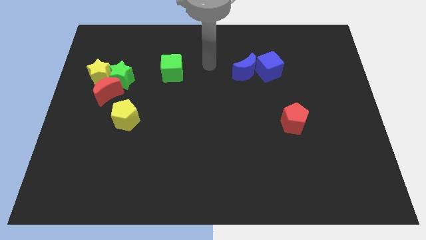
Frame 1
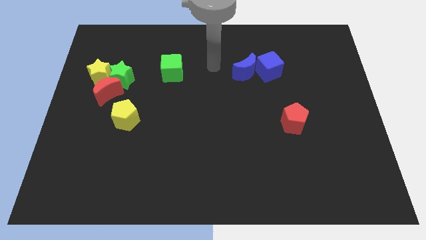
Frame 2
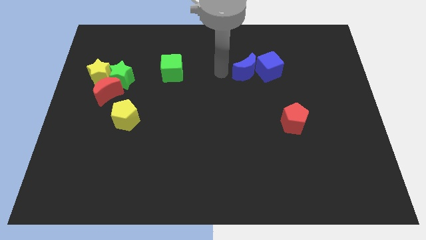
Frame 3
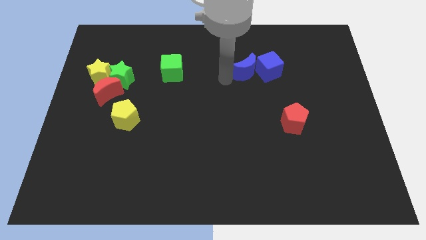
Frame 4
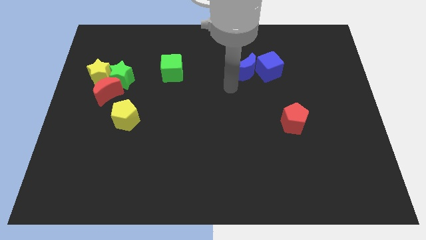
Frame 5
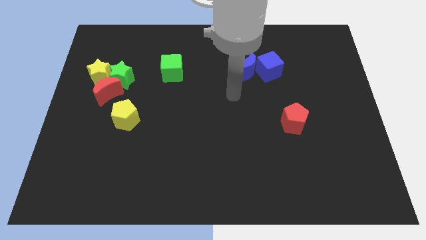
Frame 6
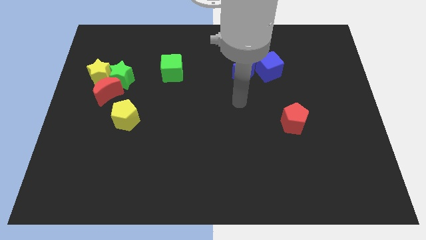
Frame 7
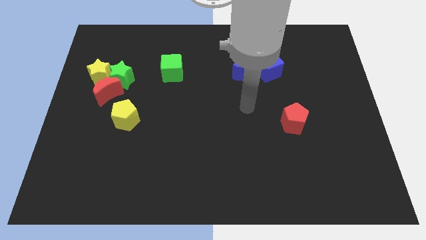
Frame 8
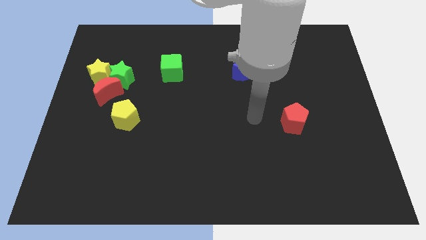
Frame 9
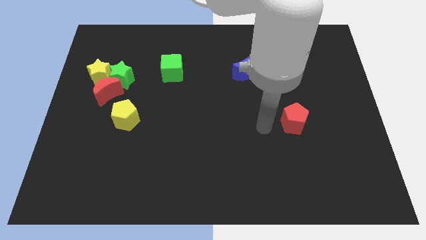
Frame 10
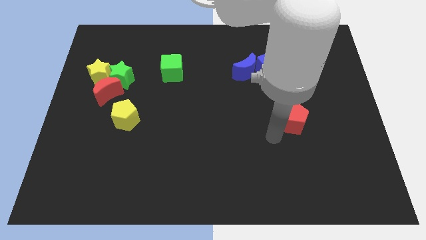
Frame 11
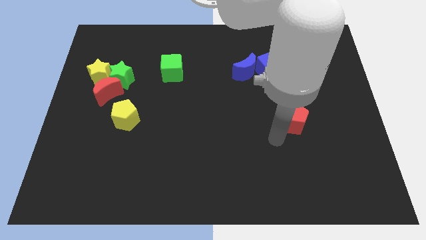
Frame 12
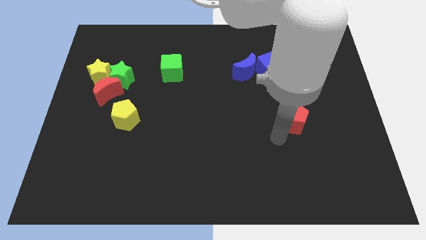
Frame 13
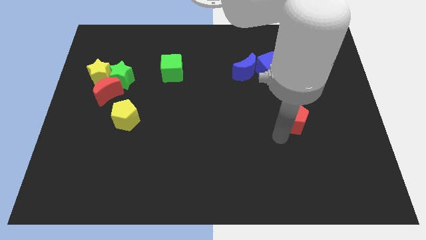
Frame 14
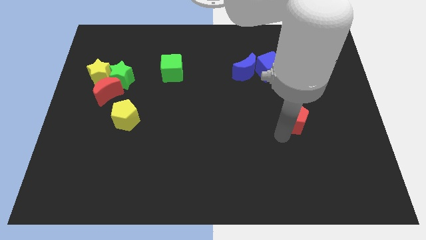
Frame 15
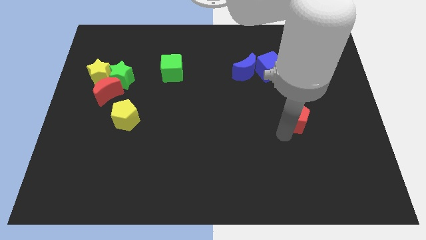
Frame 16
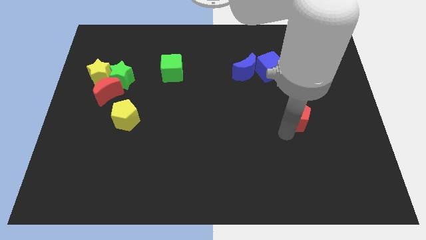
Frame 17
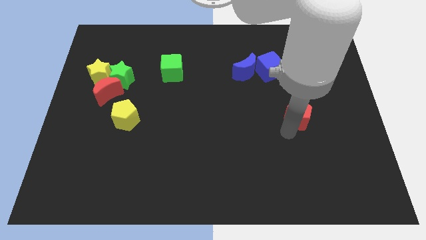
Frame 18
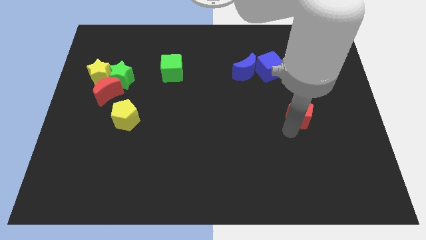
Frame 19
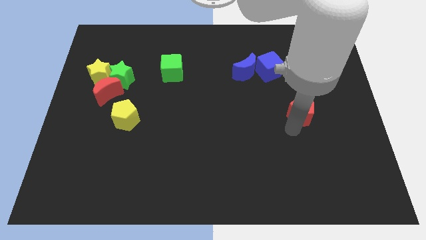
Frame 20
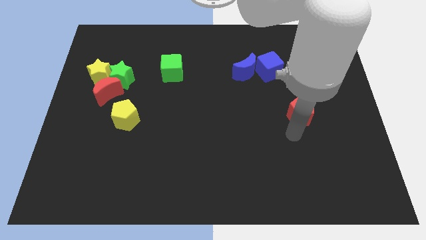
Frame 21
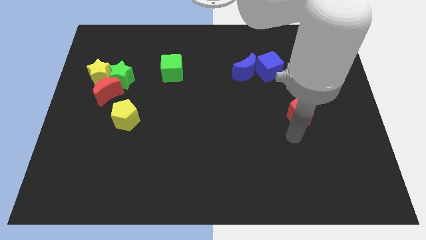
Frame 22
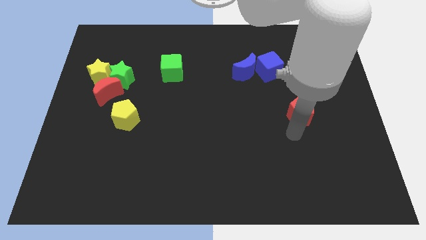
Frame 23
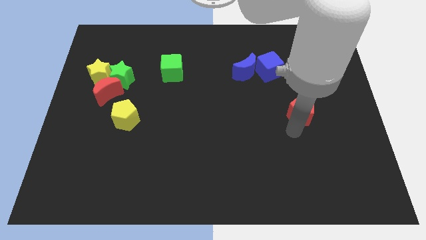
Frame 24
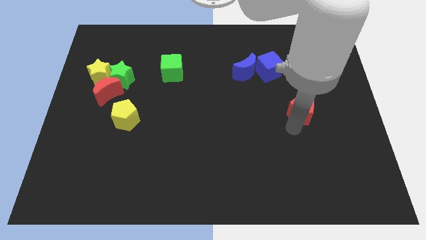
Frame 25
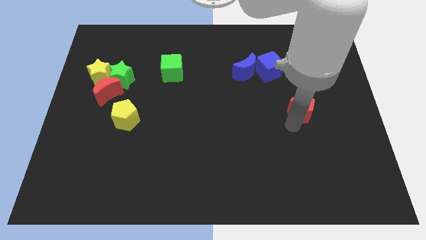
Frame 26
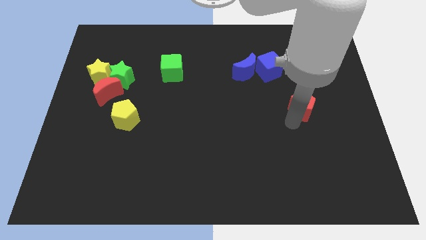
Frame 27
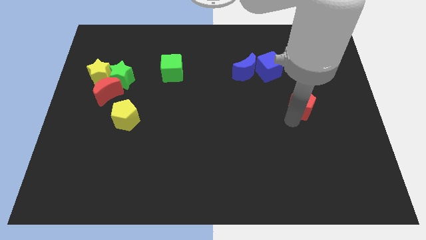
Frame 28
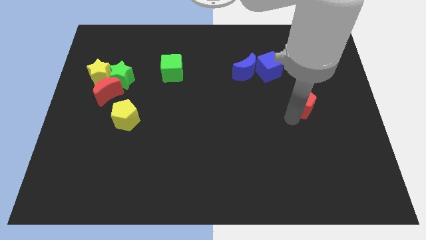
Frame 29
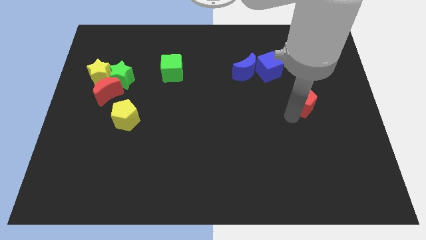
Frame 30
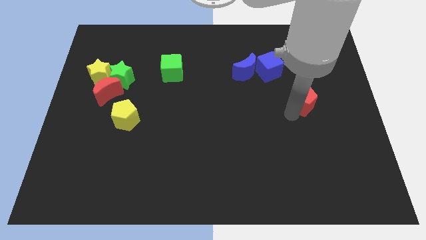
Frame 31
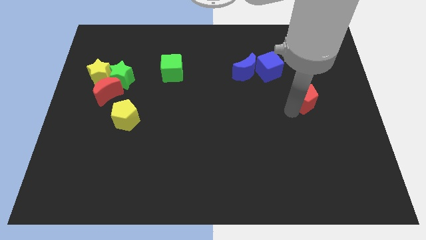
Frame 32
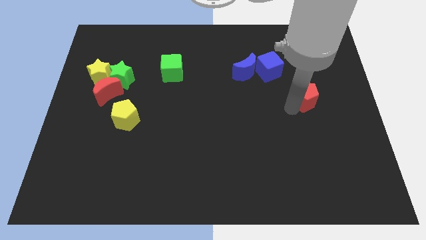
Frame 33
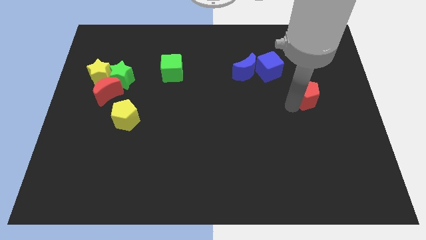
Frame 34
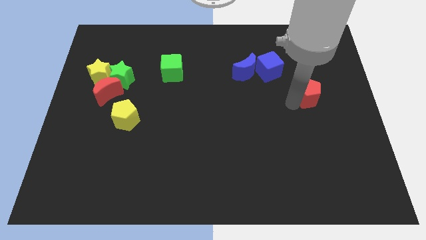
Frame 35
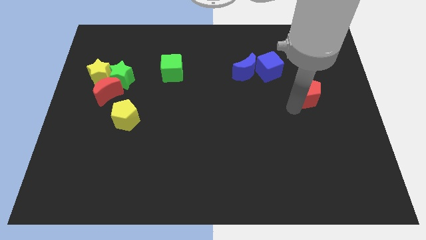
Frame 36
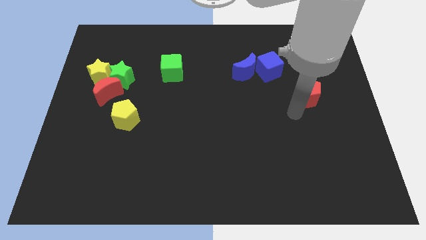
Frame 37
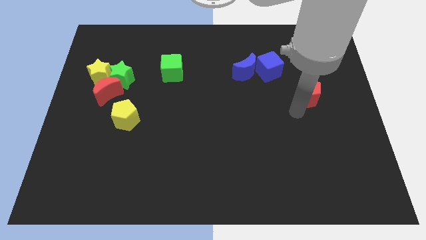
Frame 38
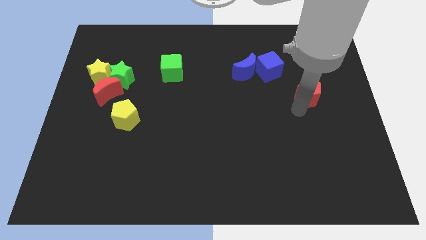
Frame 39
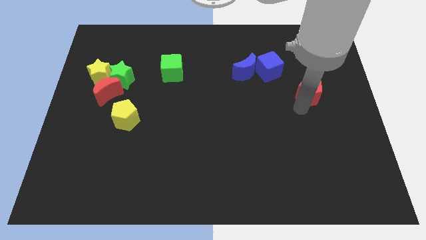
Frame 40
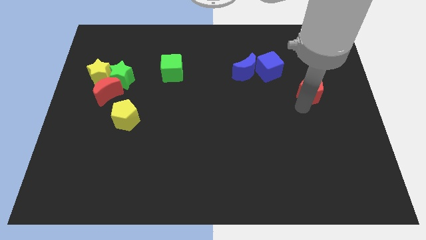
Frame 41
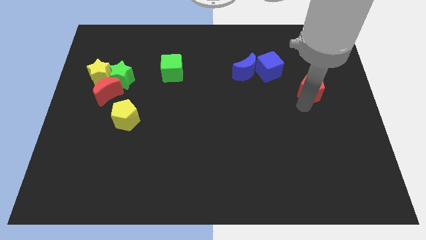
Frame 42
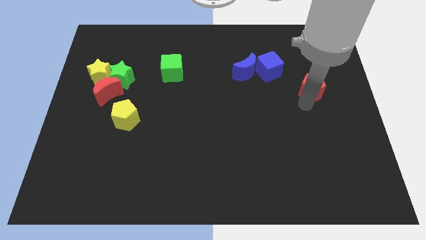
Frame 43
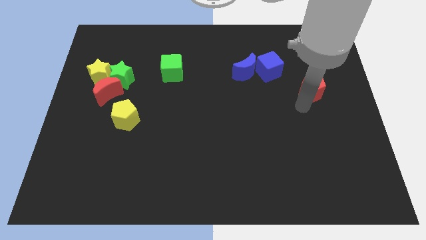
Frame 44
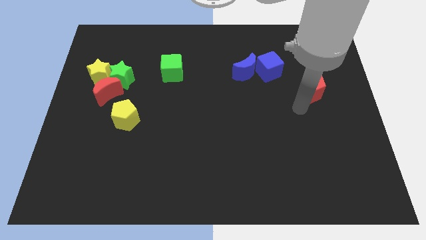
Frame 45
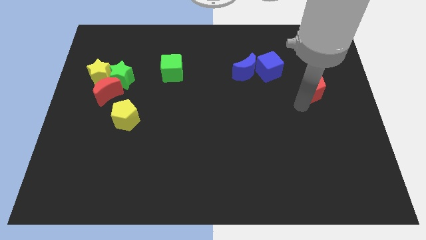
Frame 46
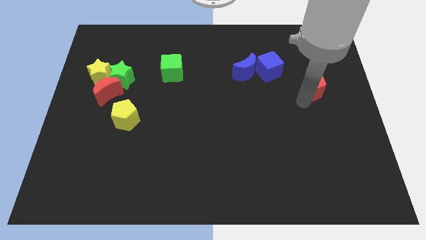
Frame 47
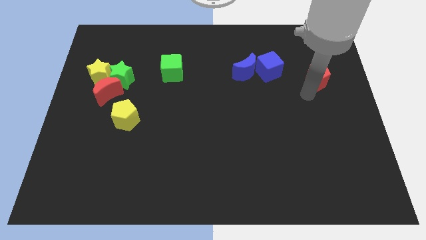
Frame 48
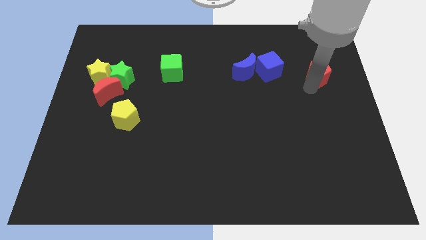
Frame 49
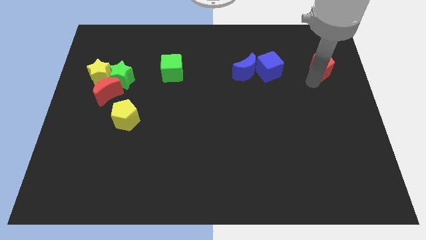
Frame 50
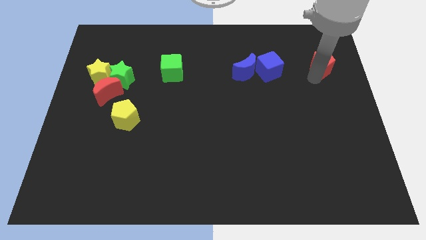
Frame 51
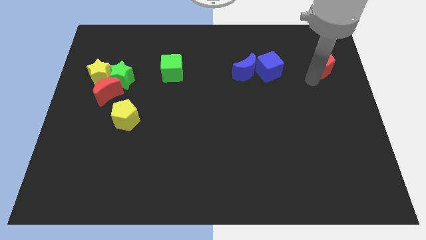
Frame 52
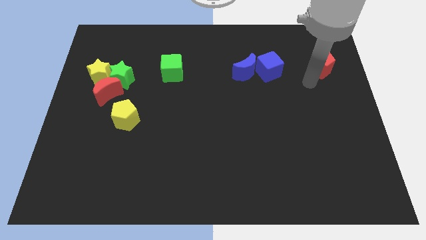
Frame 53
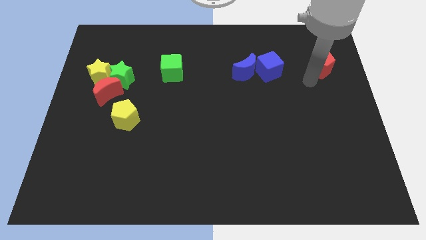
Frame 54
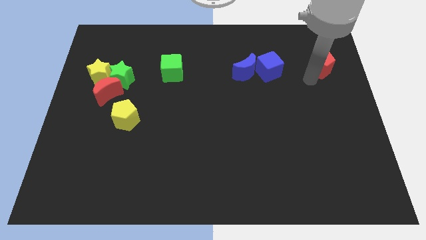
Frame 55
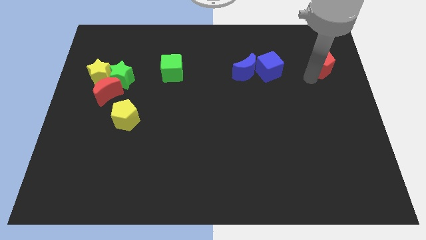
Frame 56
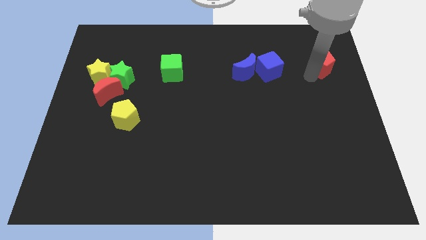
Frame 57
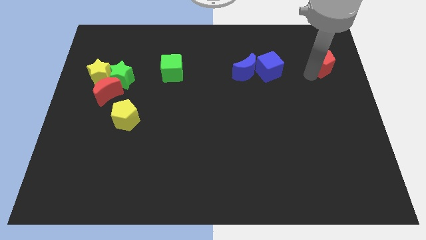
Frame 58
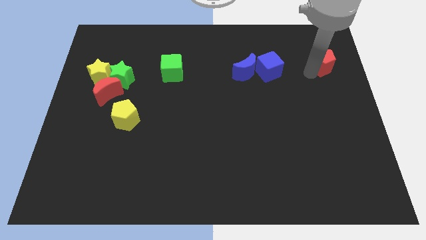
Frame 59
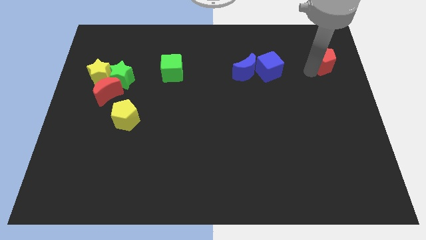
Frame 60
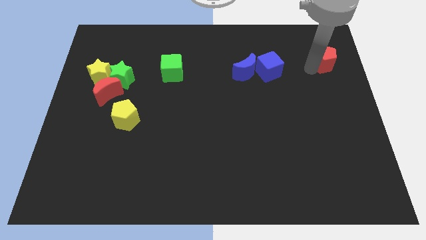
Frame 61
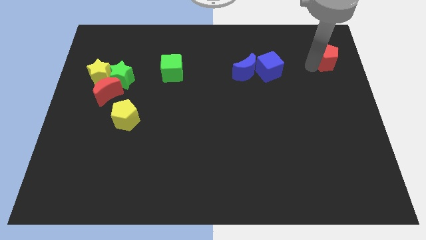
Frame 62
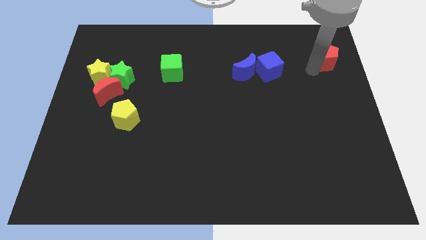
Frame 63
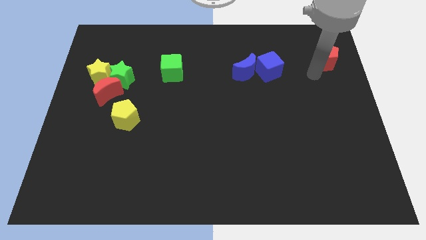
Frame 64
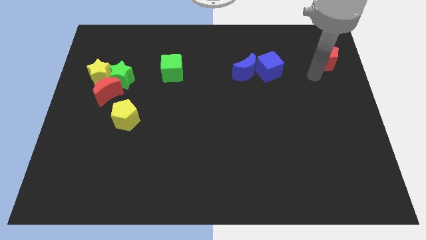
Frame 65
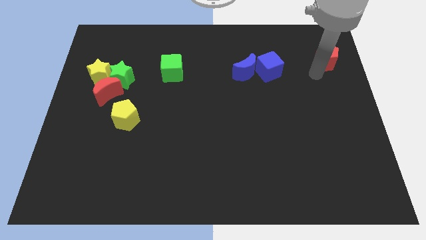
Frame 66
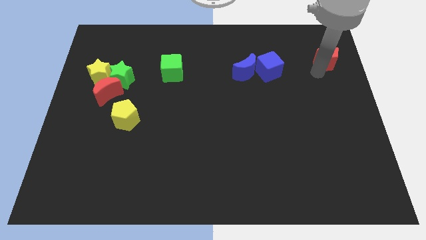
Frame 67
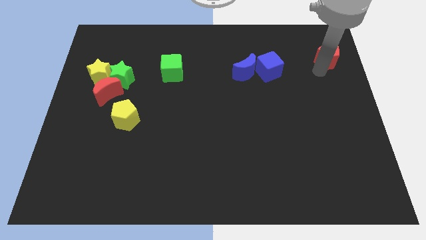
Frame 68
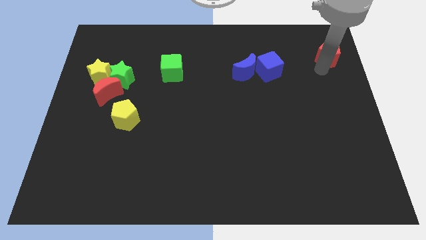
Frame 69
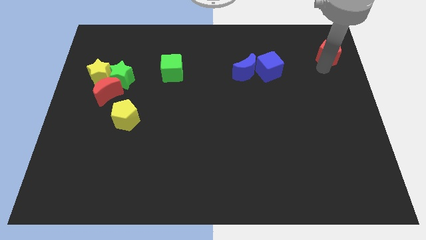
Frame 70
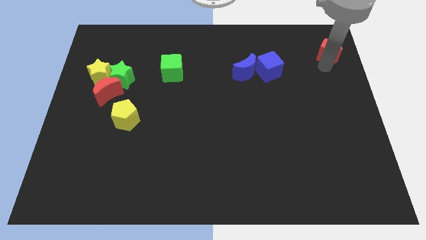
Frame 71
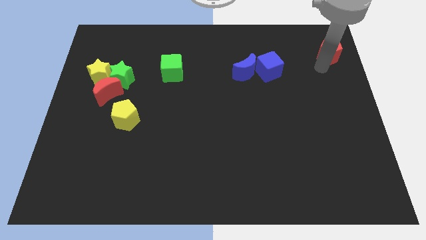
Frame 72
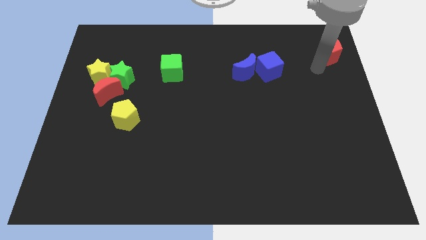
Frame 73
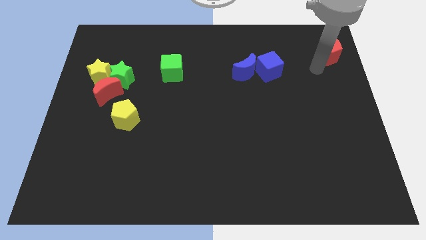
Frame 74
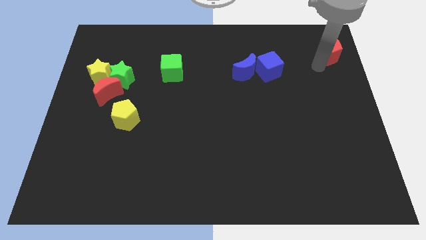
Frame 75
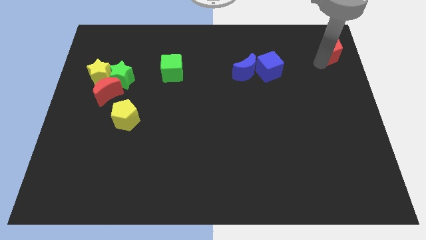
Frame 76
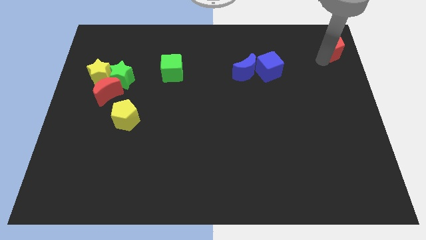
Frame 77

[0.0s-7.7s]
put the red pentagon to the top right

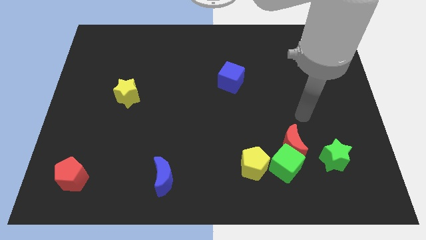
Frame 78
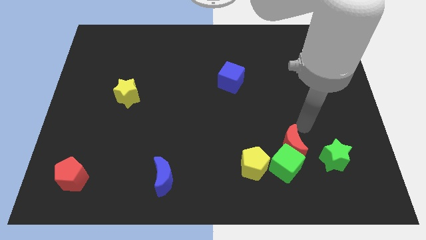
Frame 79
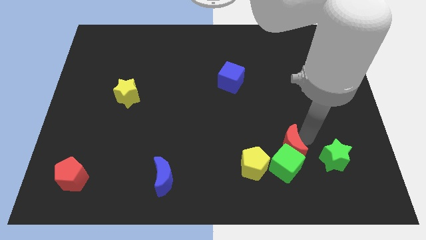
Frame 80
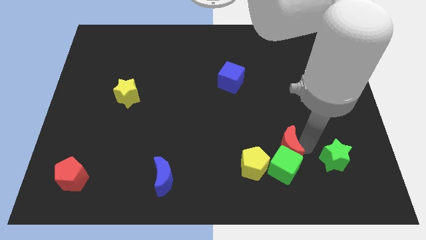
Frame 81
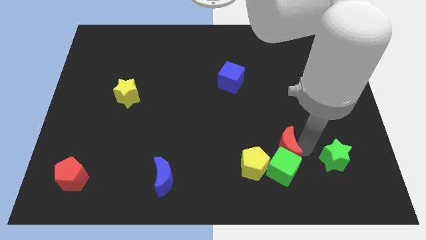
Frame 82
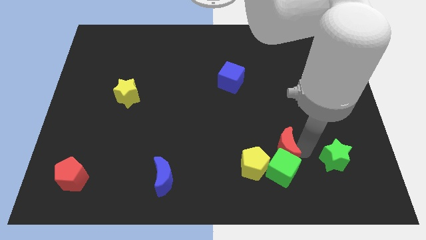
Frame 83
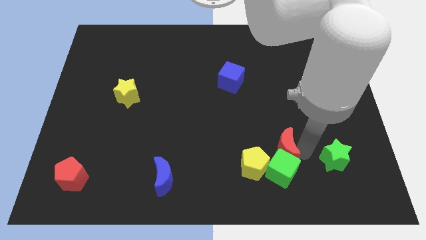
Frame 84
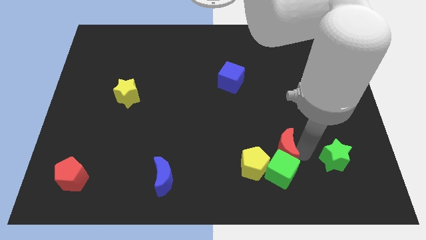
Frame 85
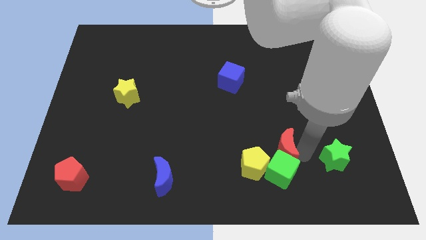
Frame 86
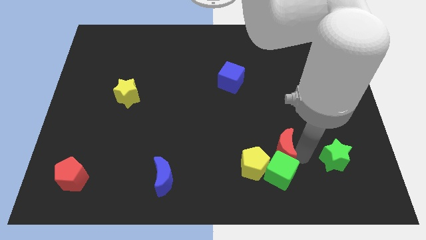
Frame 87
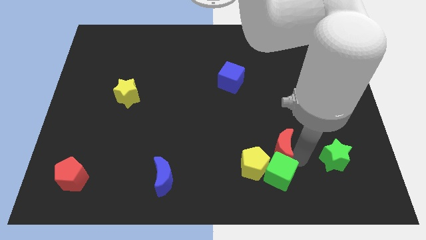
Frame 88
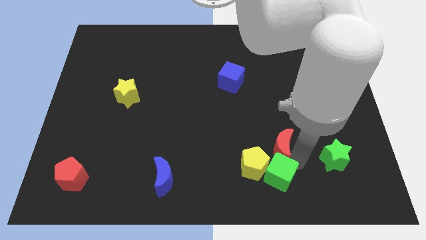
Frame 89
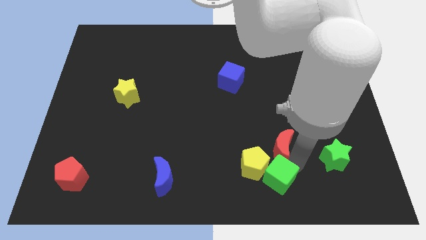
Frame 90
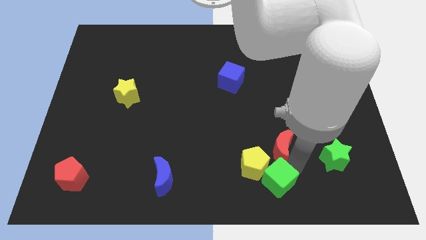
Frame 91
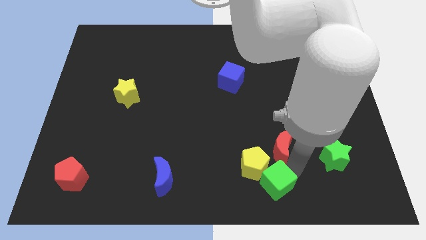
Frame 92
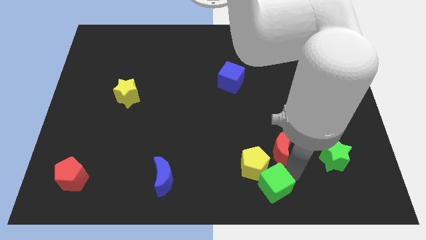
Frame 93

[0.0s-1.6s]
put the green cube to the bottom
